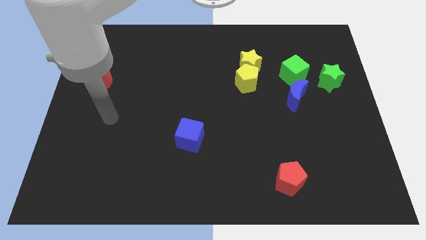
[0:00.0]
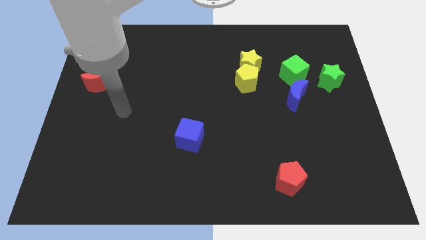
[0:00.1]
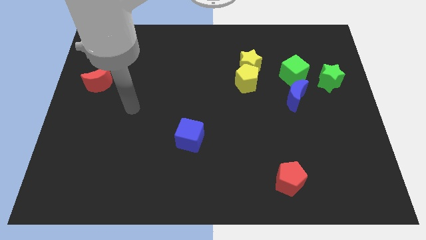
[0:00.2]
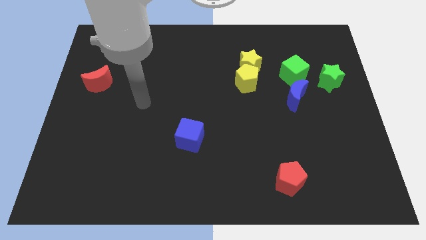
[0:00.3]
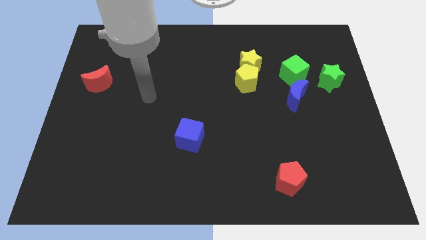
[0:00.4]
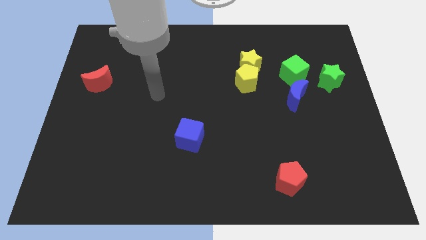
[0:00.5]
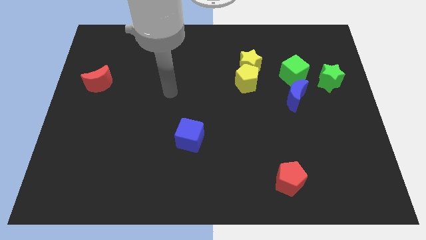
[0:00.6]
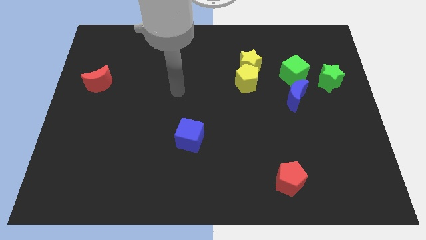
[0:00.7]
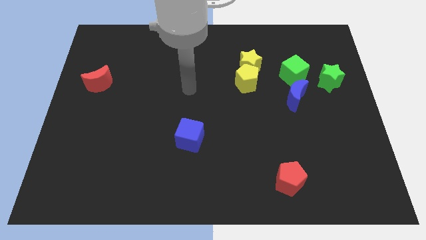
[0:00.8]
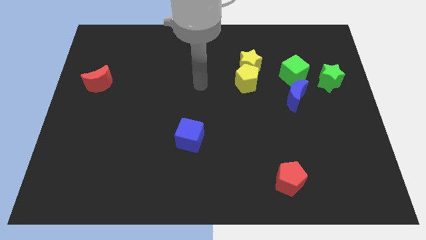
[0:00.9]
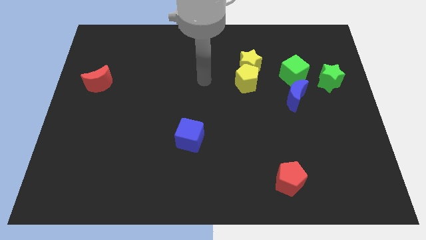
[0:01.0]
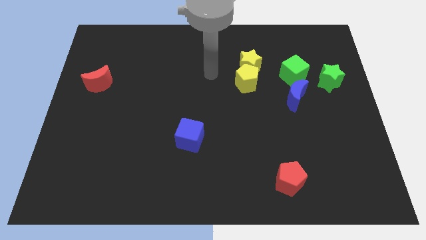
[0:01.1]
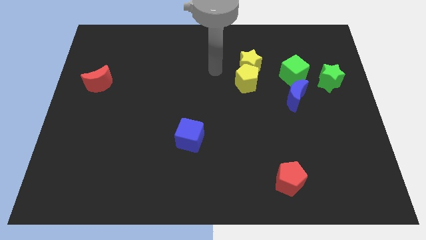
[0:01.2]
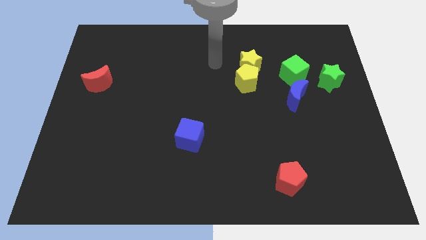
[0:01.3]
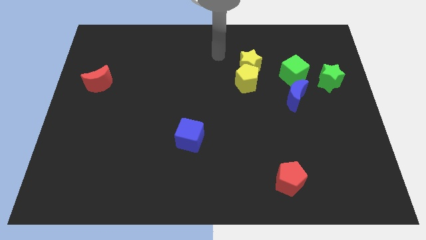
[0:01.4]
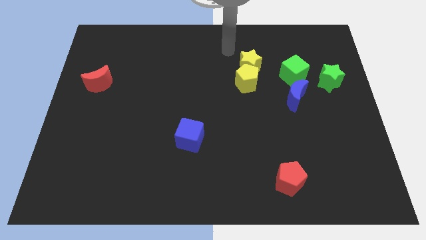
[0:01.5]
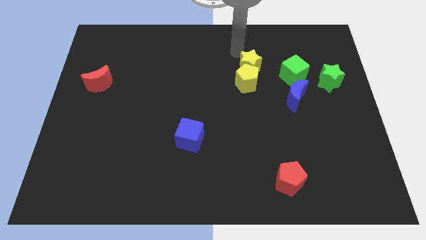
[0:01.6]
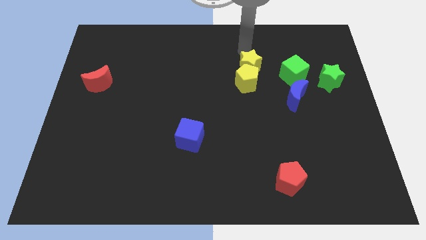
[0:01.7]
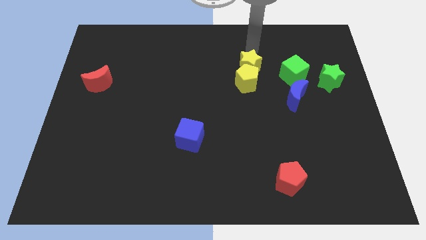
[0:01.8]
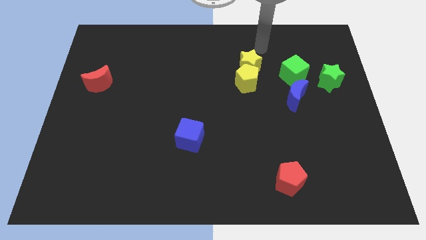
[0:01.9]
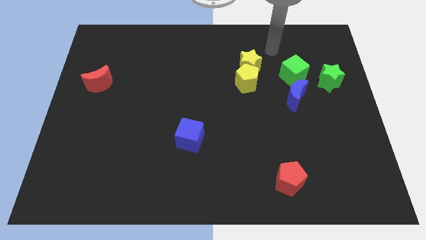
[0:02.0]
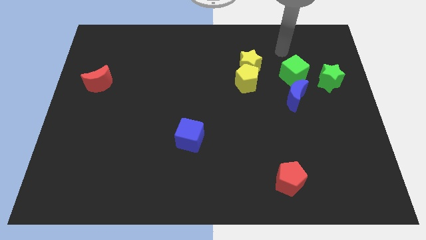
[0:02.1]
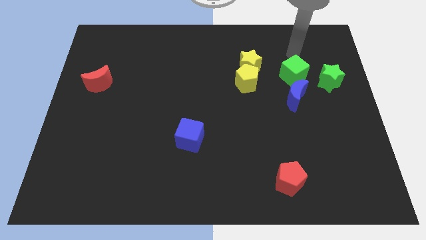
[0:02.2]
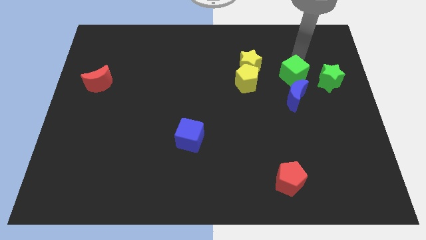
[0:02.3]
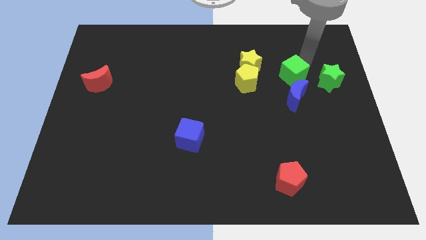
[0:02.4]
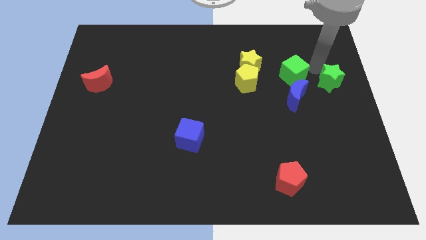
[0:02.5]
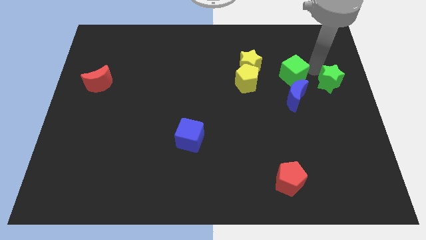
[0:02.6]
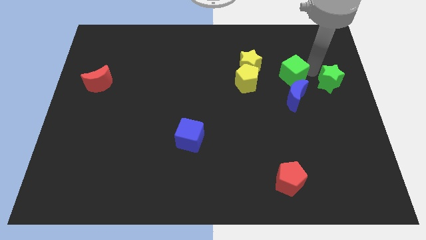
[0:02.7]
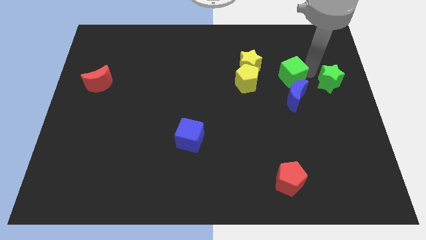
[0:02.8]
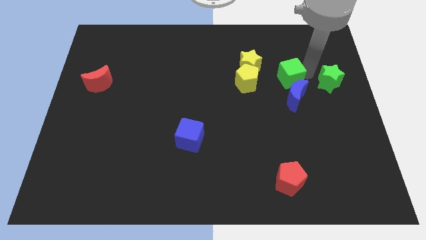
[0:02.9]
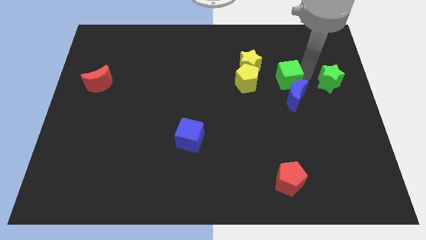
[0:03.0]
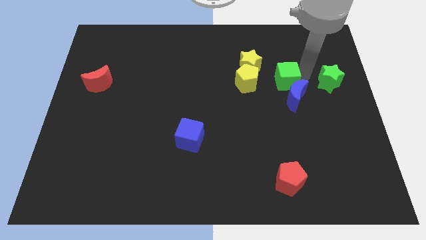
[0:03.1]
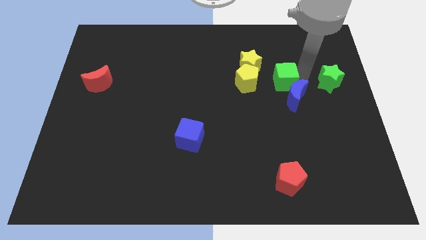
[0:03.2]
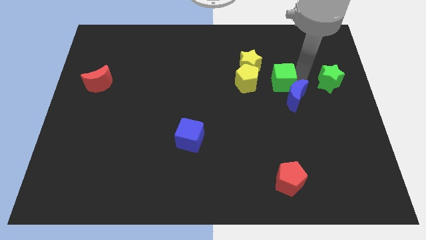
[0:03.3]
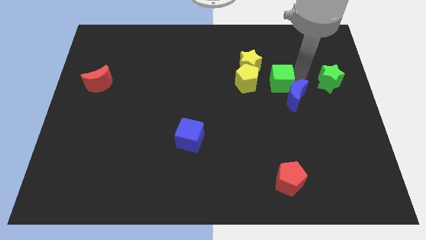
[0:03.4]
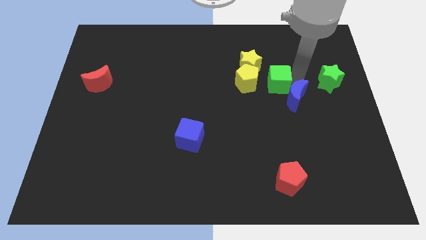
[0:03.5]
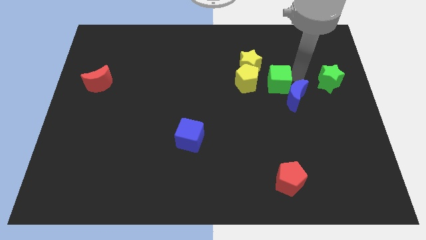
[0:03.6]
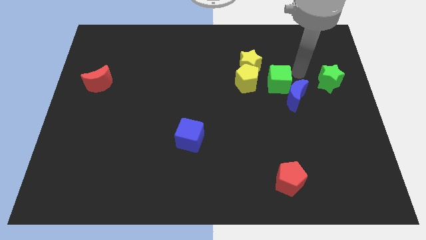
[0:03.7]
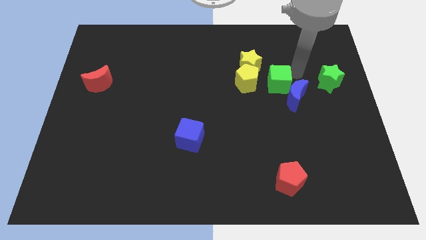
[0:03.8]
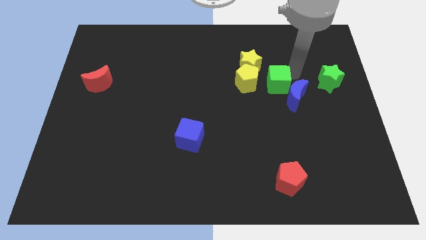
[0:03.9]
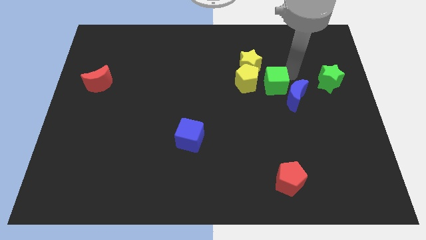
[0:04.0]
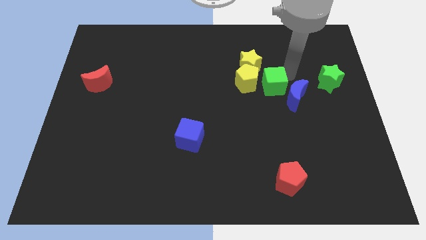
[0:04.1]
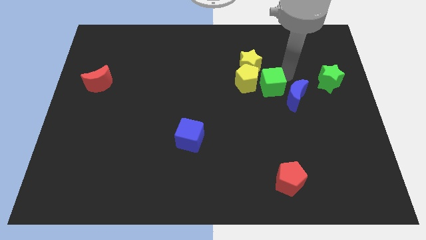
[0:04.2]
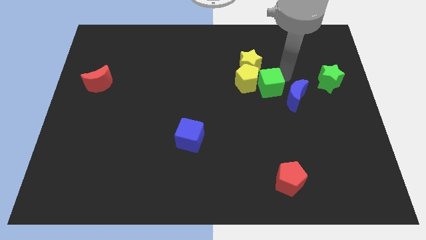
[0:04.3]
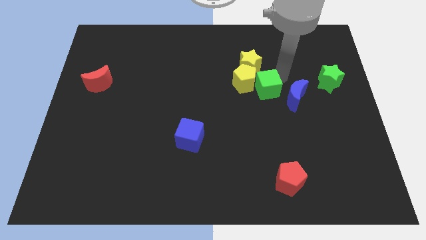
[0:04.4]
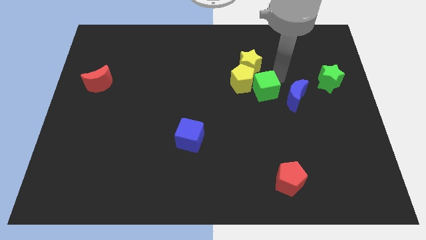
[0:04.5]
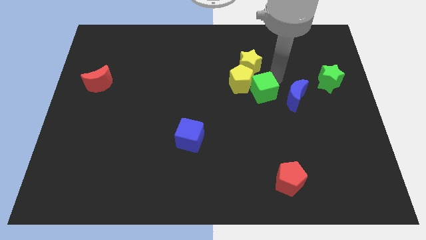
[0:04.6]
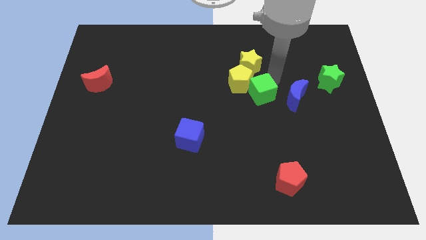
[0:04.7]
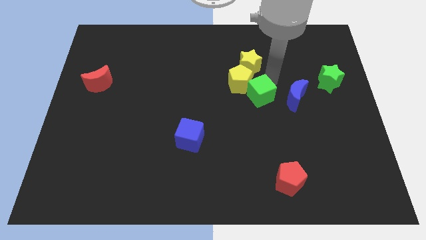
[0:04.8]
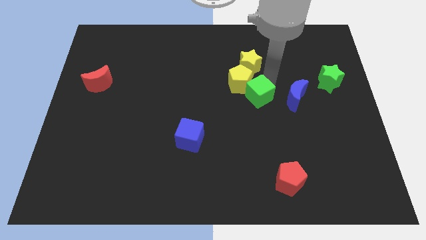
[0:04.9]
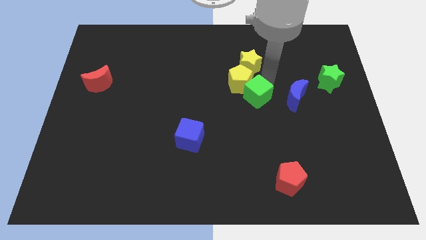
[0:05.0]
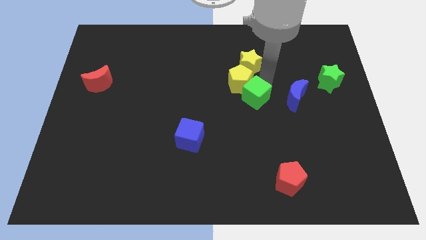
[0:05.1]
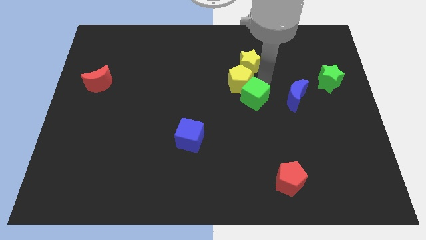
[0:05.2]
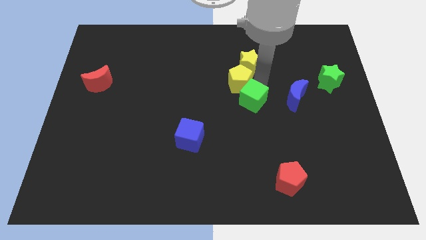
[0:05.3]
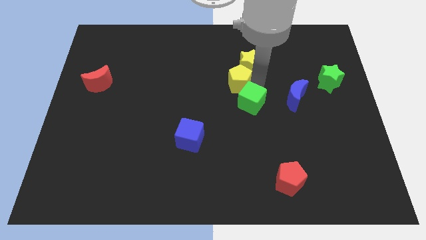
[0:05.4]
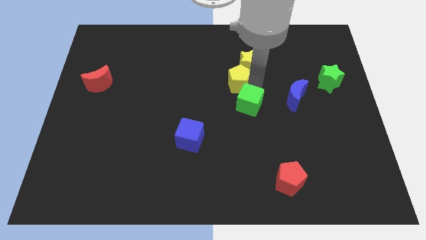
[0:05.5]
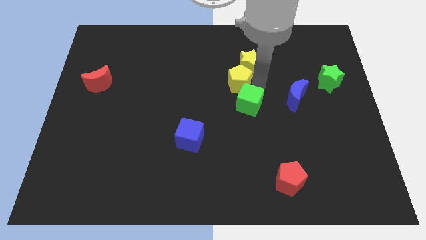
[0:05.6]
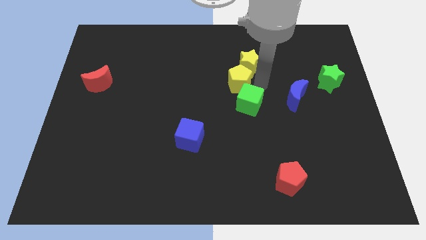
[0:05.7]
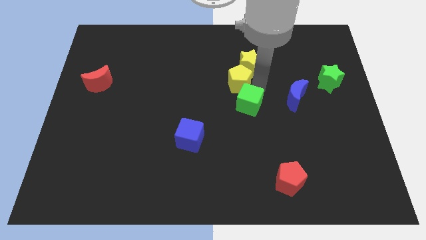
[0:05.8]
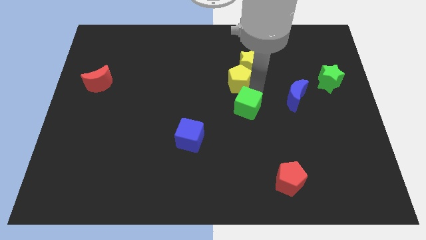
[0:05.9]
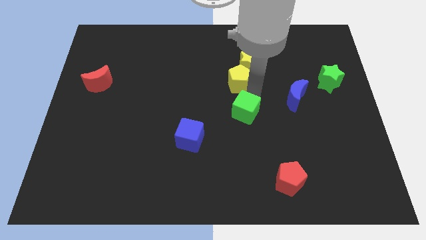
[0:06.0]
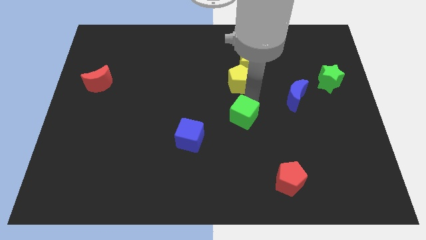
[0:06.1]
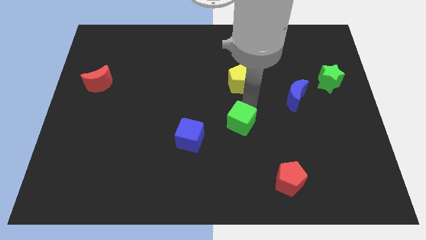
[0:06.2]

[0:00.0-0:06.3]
move the green cube downwards and then to the left

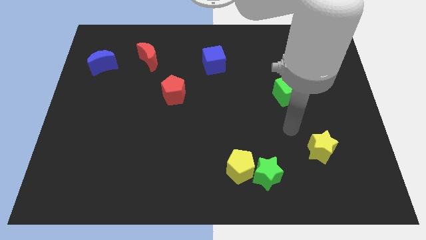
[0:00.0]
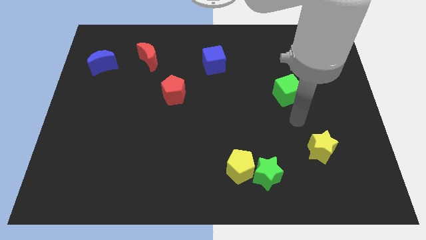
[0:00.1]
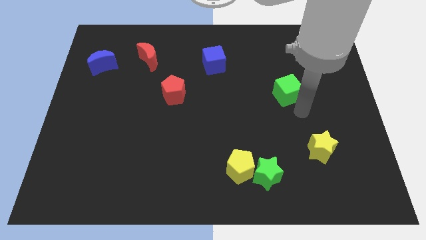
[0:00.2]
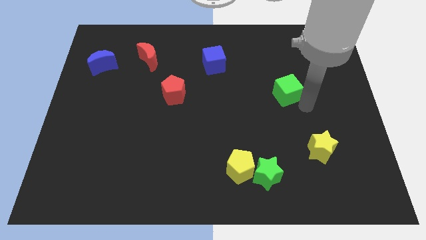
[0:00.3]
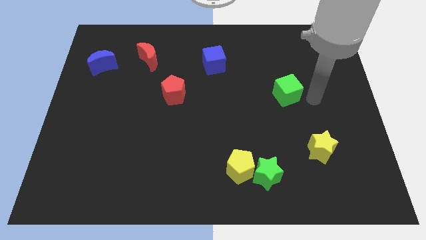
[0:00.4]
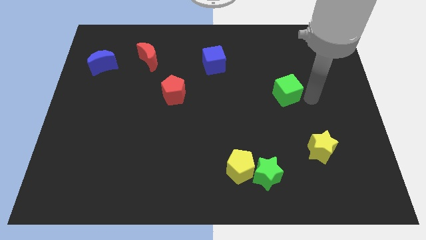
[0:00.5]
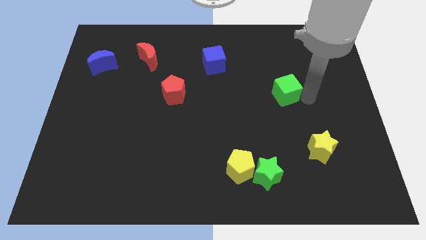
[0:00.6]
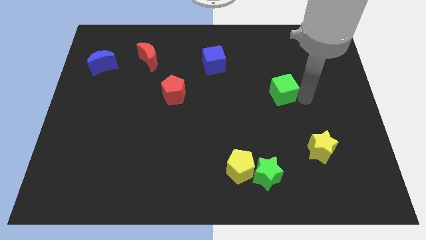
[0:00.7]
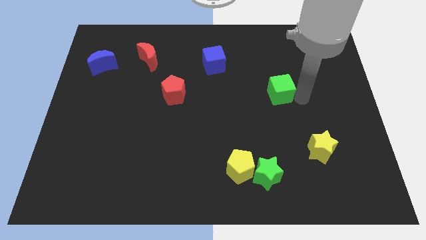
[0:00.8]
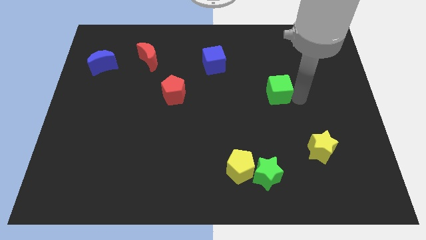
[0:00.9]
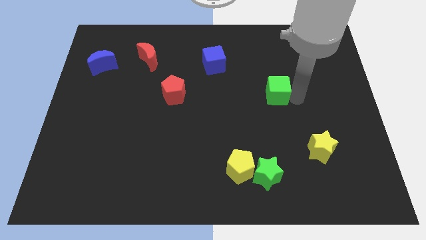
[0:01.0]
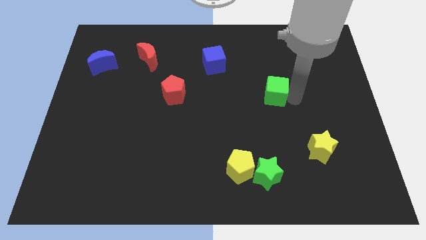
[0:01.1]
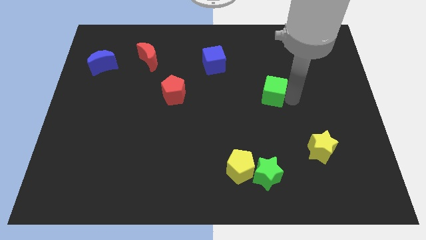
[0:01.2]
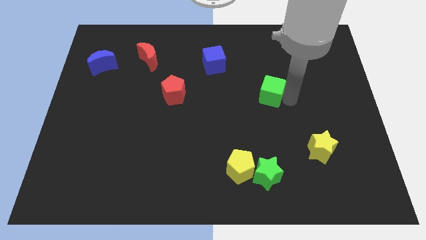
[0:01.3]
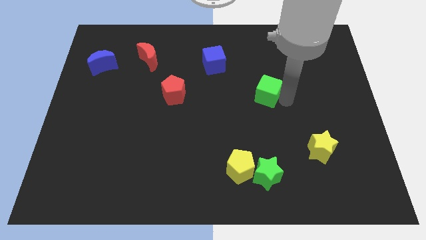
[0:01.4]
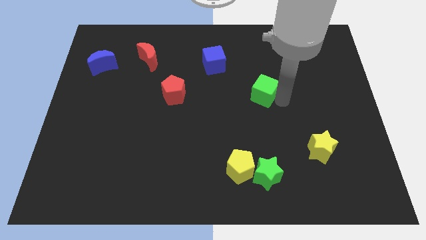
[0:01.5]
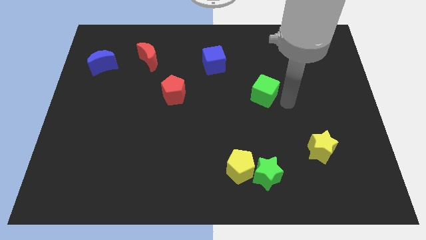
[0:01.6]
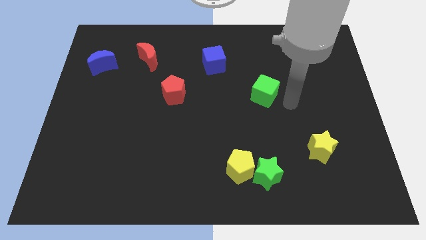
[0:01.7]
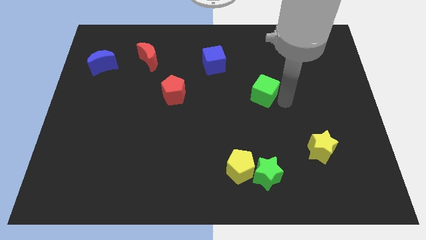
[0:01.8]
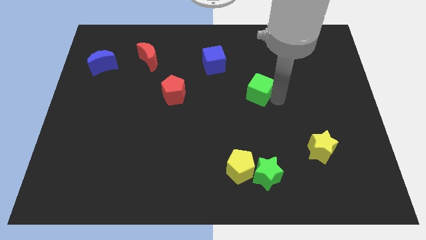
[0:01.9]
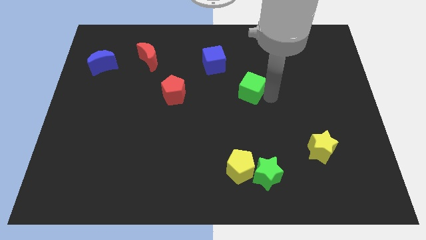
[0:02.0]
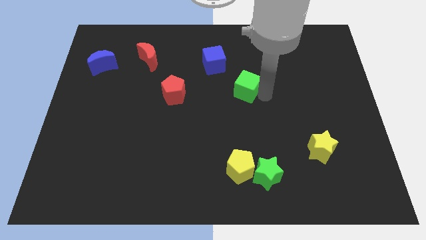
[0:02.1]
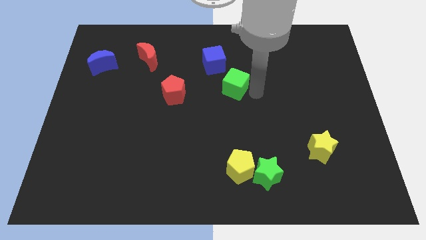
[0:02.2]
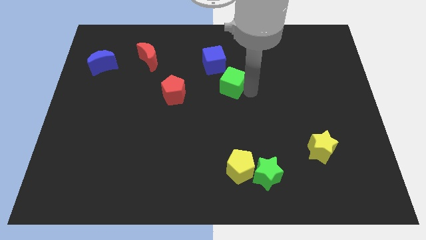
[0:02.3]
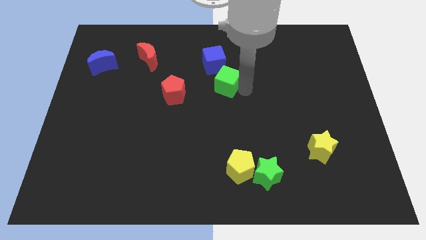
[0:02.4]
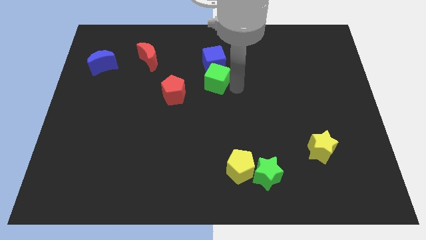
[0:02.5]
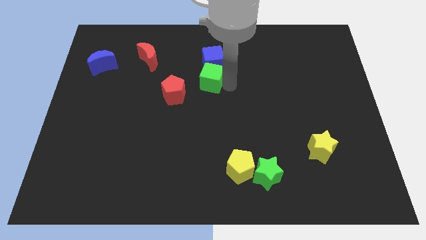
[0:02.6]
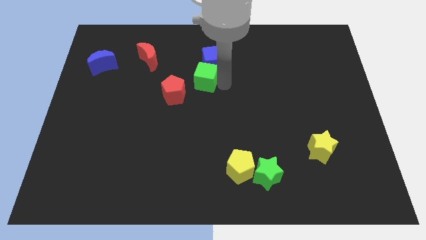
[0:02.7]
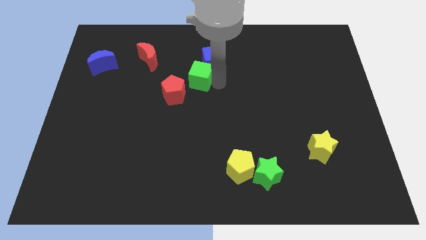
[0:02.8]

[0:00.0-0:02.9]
push the green cube to the left
